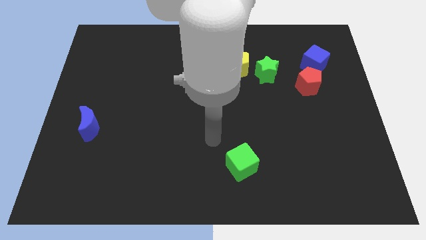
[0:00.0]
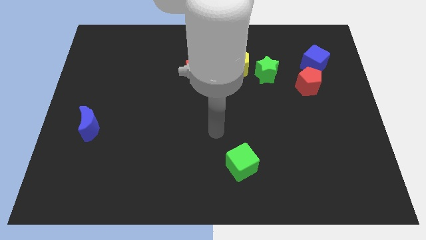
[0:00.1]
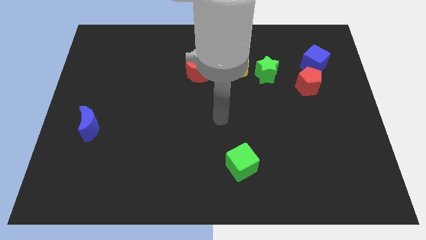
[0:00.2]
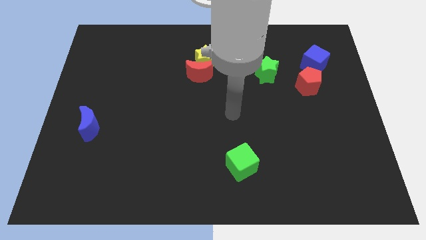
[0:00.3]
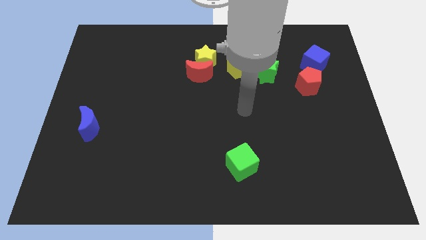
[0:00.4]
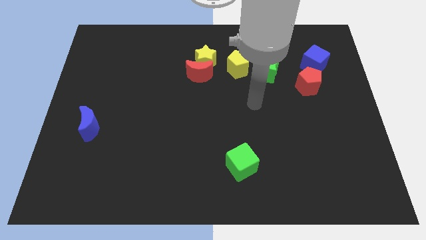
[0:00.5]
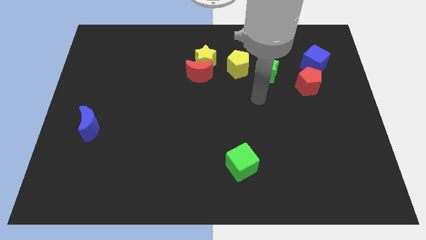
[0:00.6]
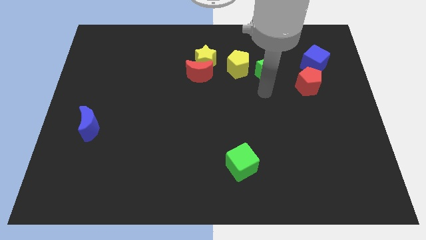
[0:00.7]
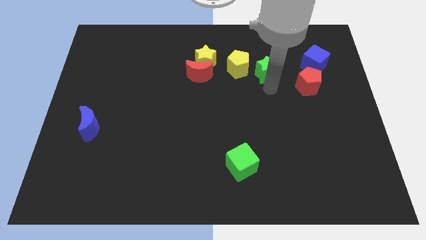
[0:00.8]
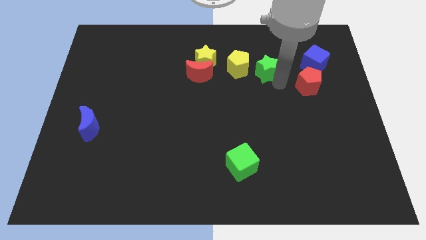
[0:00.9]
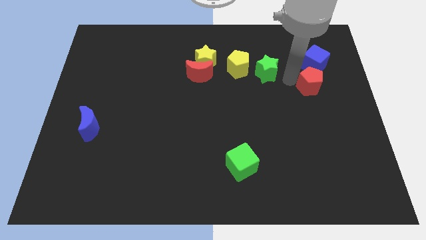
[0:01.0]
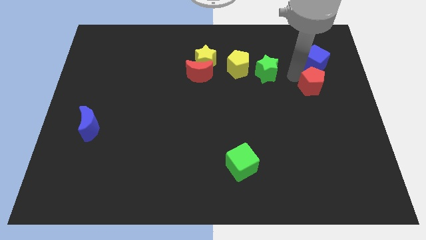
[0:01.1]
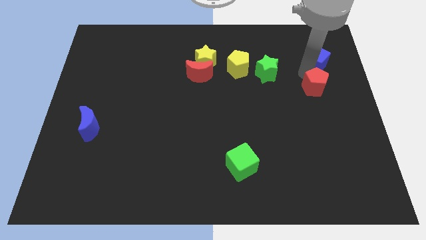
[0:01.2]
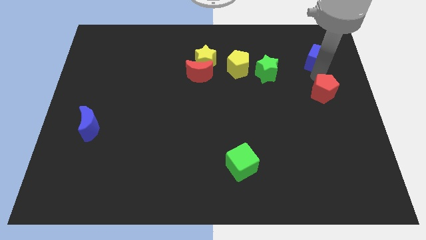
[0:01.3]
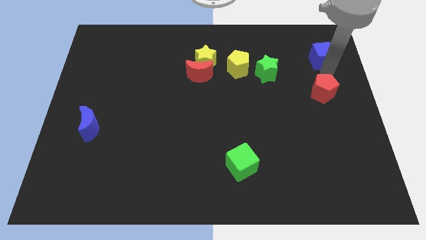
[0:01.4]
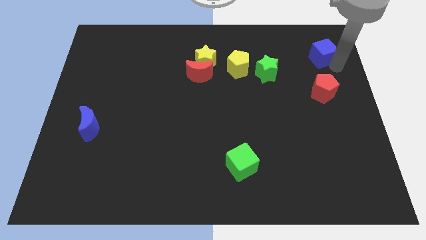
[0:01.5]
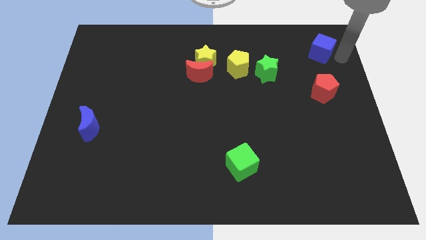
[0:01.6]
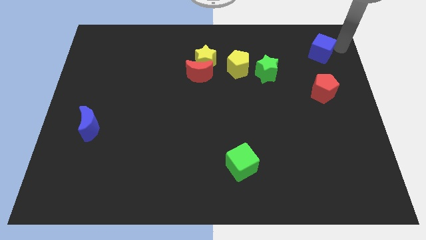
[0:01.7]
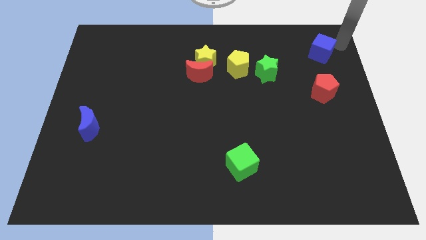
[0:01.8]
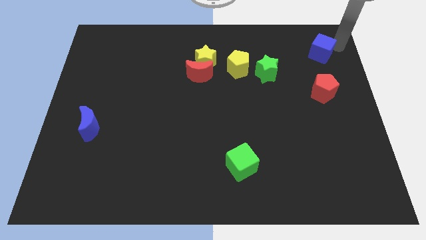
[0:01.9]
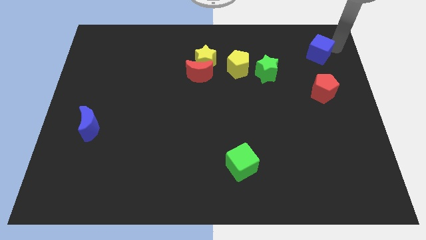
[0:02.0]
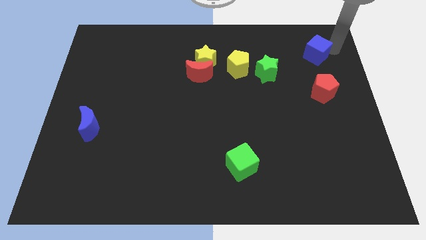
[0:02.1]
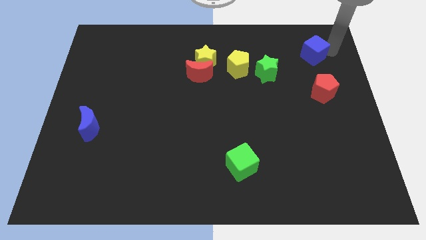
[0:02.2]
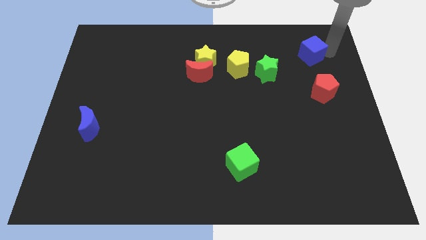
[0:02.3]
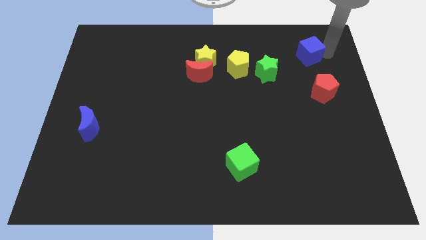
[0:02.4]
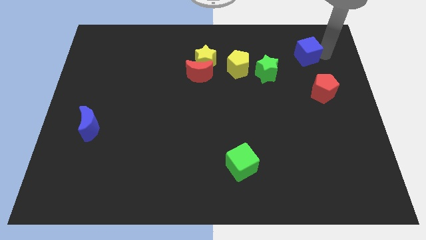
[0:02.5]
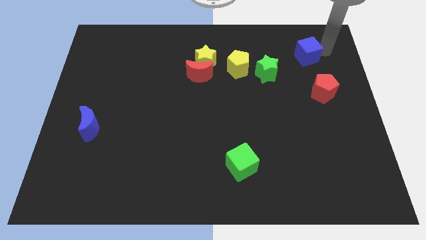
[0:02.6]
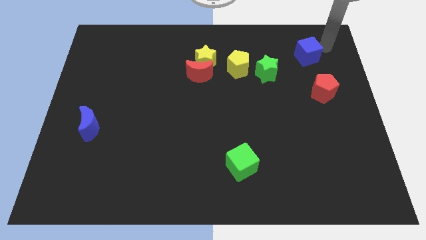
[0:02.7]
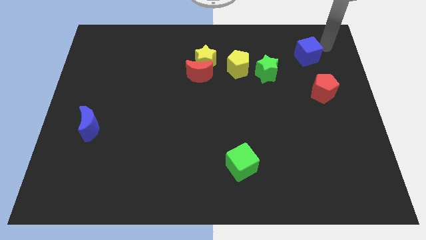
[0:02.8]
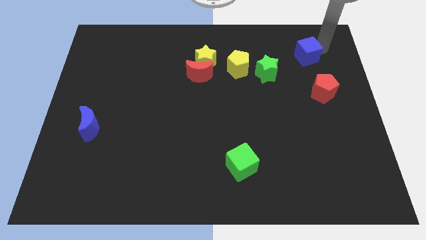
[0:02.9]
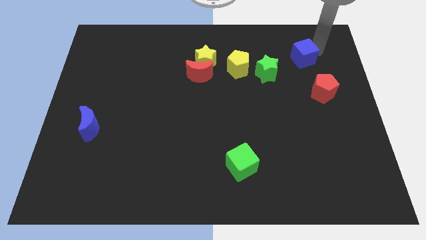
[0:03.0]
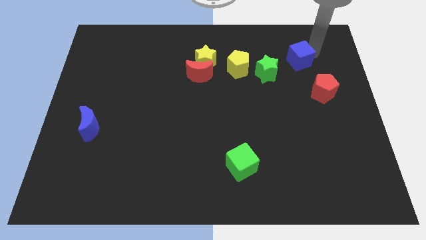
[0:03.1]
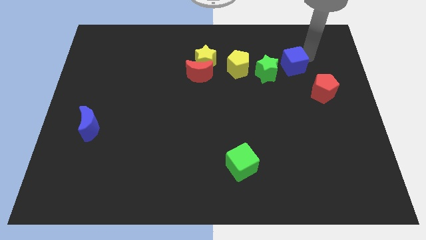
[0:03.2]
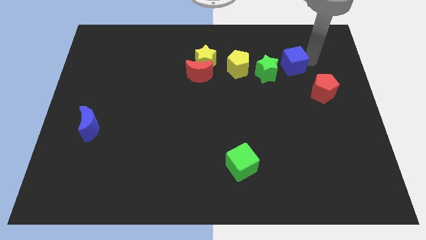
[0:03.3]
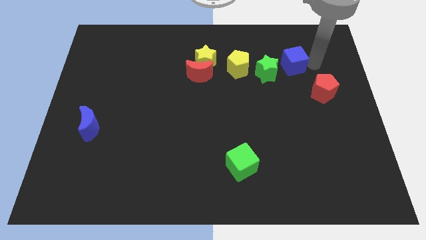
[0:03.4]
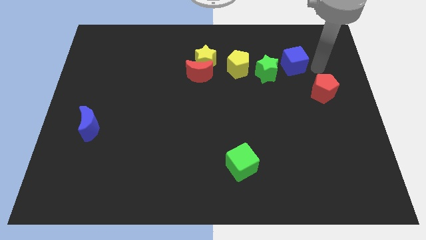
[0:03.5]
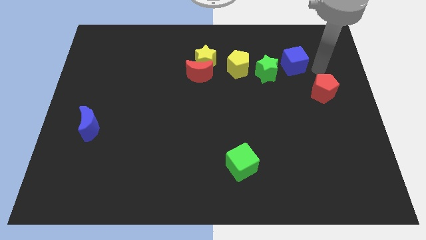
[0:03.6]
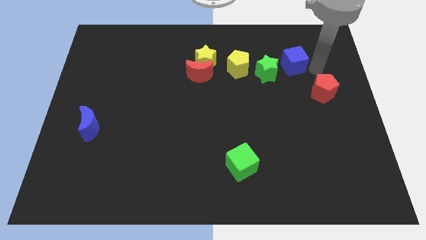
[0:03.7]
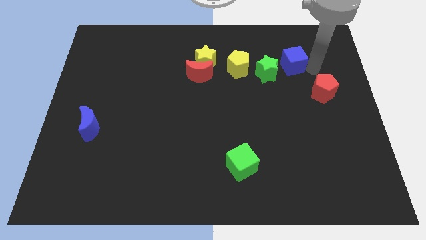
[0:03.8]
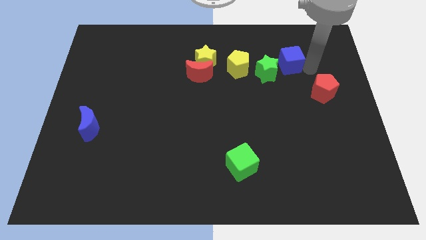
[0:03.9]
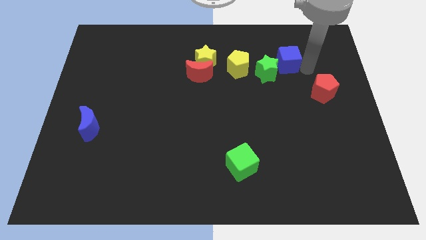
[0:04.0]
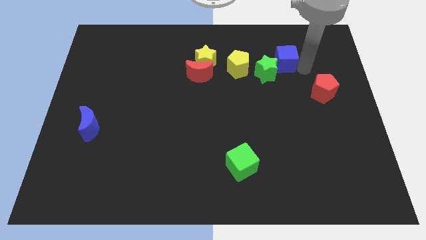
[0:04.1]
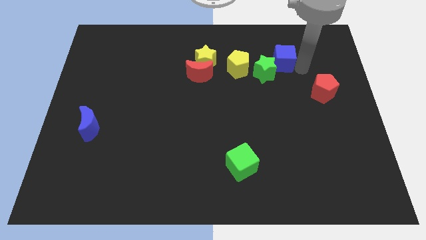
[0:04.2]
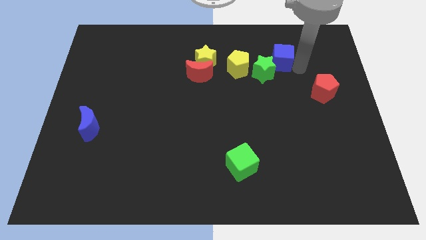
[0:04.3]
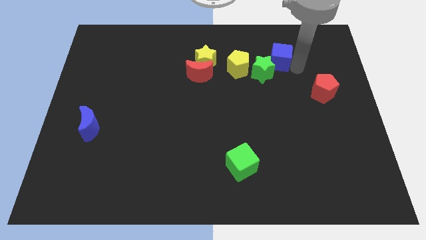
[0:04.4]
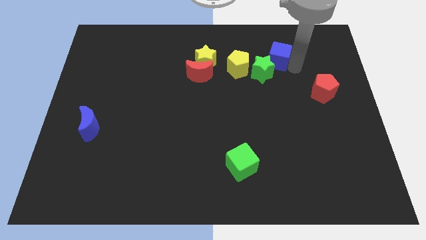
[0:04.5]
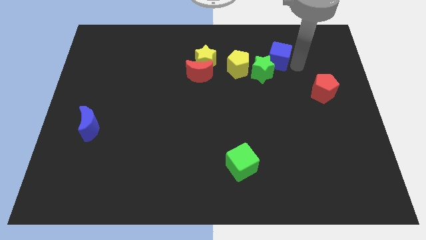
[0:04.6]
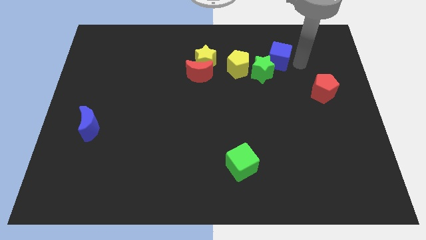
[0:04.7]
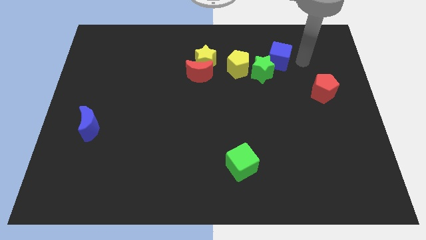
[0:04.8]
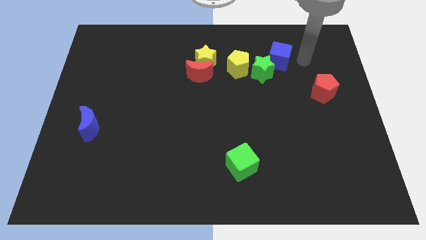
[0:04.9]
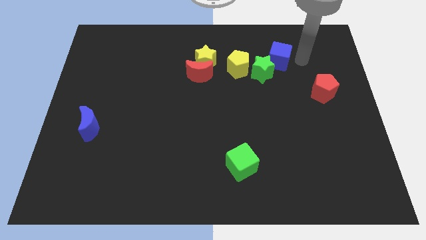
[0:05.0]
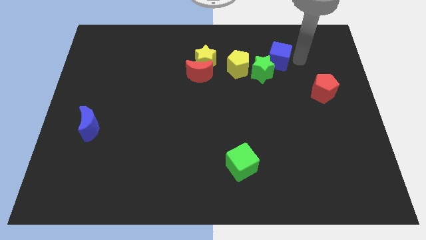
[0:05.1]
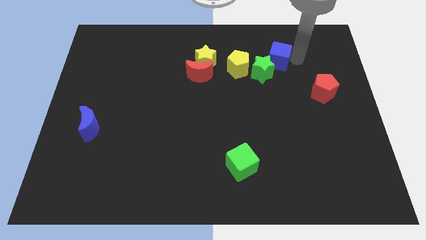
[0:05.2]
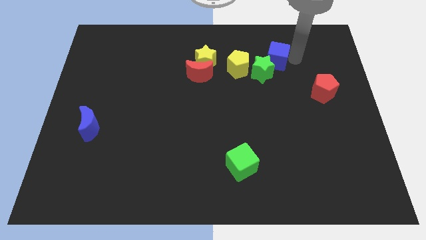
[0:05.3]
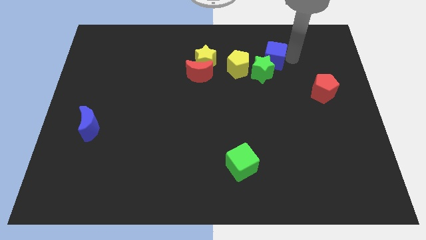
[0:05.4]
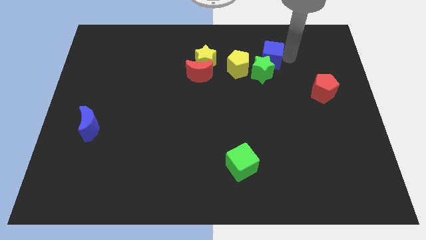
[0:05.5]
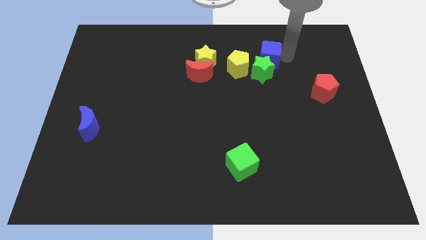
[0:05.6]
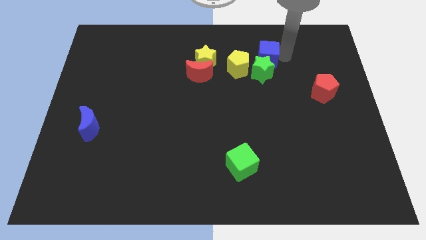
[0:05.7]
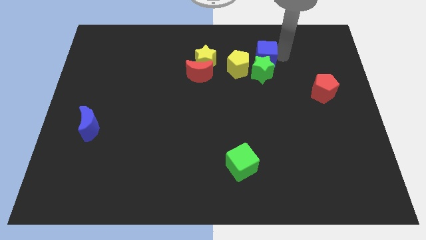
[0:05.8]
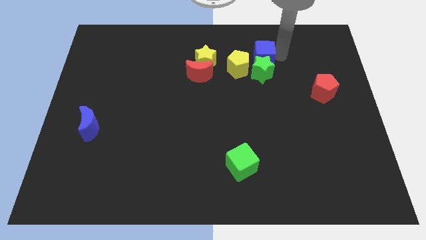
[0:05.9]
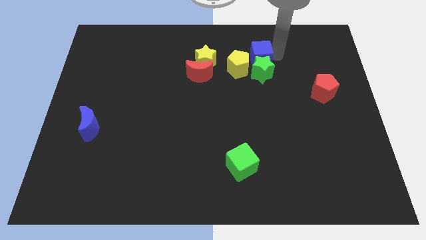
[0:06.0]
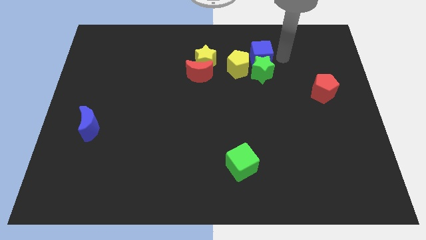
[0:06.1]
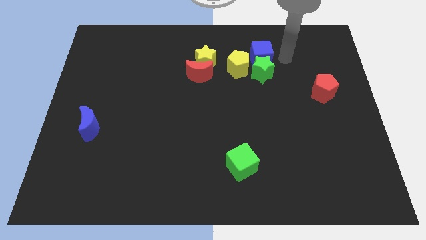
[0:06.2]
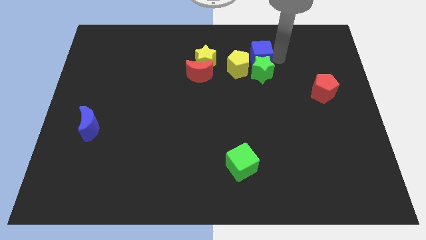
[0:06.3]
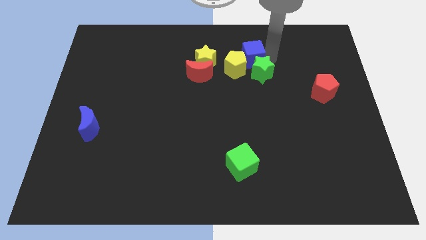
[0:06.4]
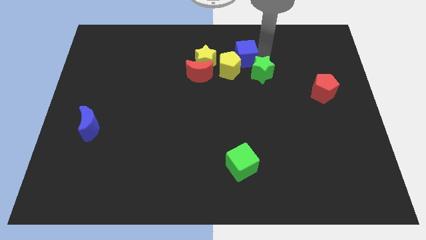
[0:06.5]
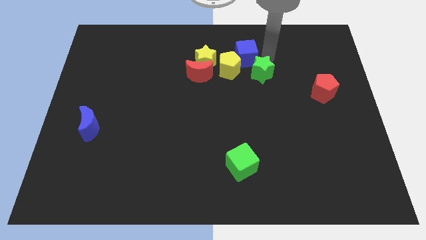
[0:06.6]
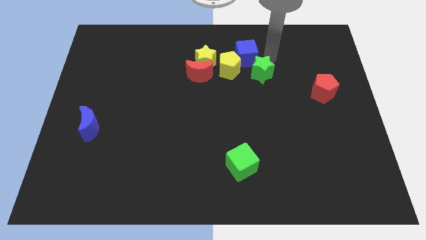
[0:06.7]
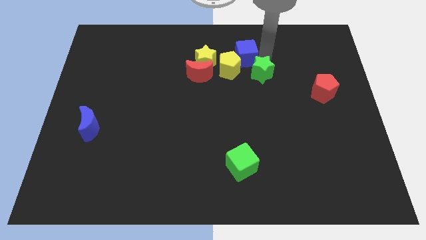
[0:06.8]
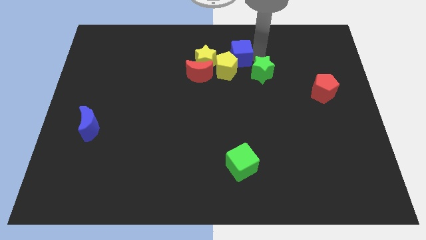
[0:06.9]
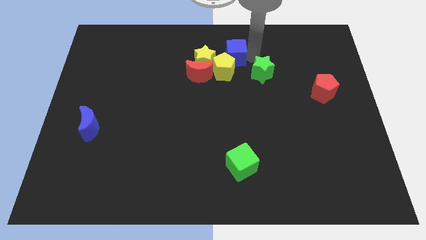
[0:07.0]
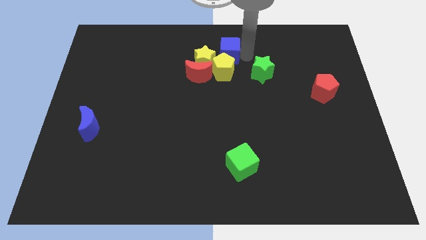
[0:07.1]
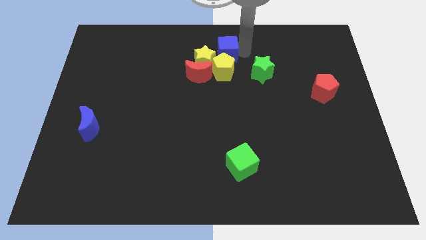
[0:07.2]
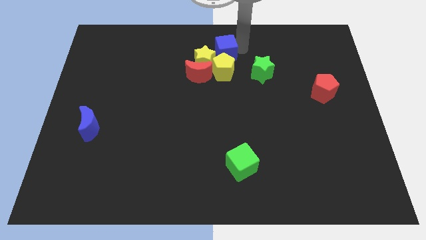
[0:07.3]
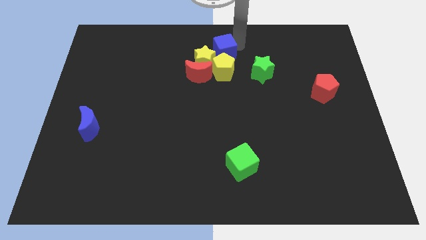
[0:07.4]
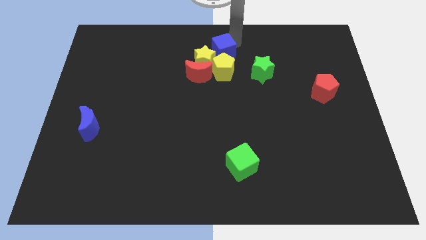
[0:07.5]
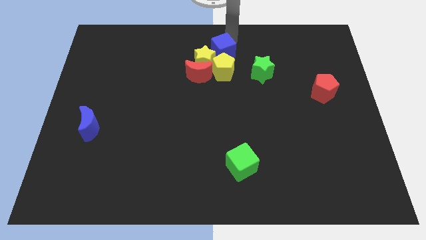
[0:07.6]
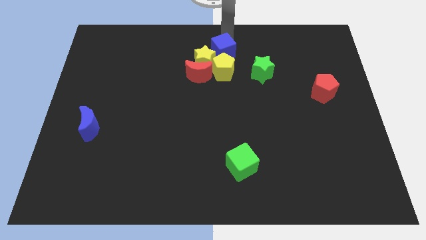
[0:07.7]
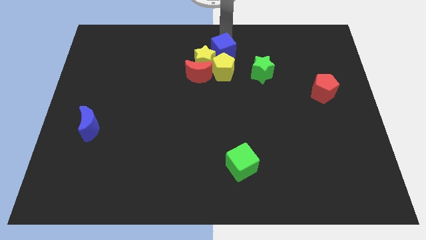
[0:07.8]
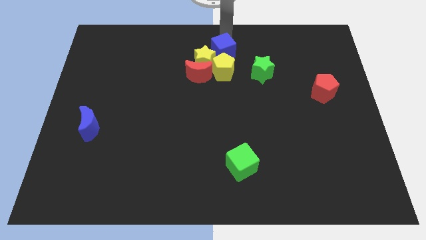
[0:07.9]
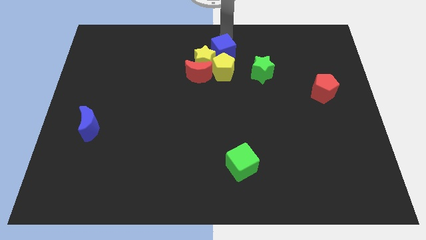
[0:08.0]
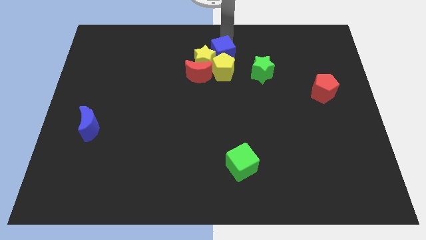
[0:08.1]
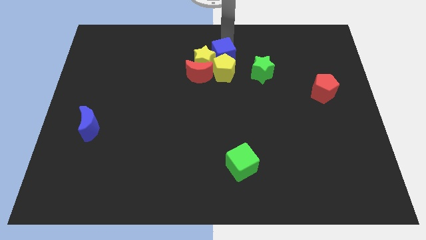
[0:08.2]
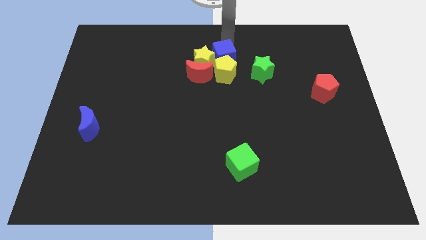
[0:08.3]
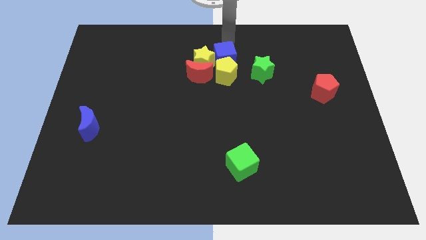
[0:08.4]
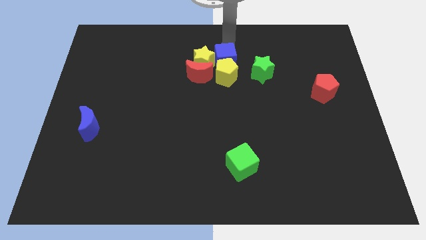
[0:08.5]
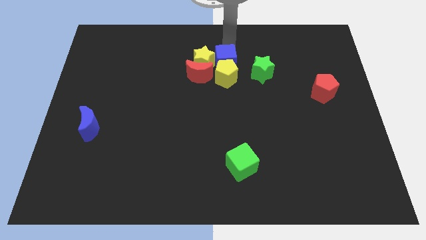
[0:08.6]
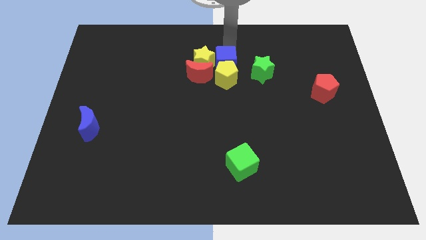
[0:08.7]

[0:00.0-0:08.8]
slide the blue cube to the center of the board
